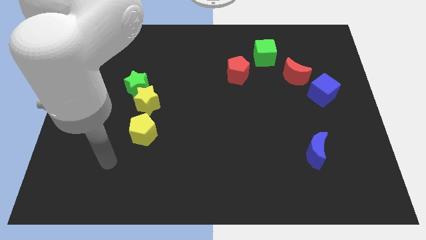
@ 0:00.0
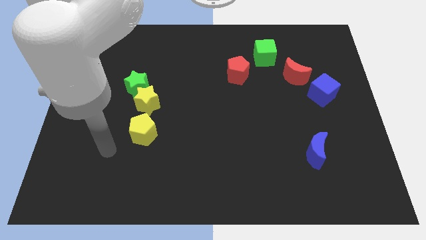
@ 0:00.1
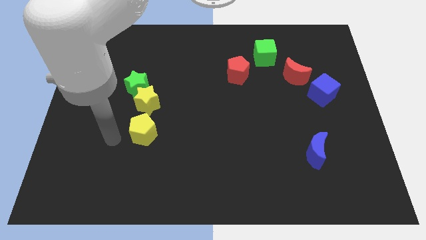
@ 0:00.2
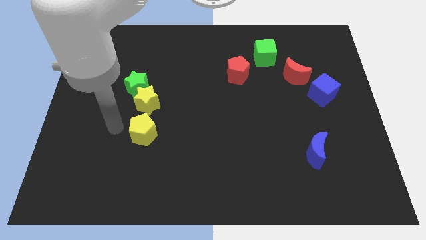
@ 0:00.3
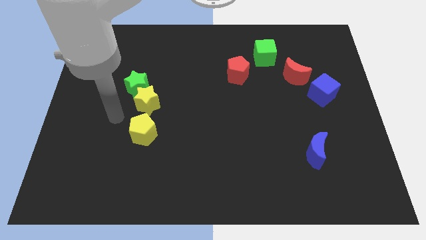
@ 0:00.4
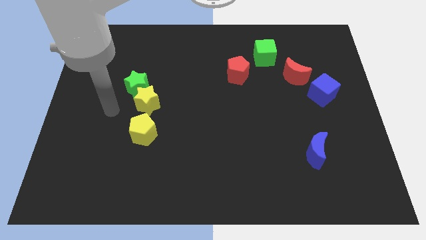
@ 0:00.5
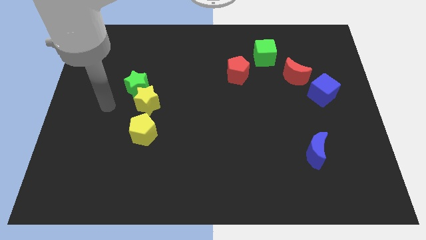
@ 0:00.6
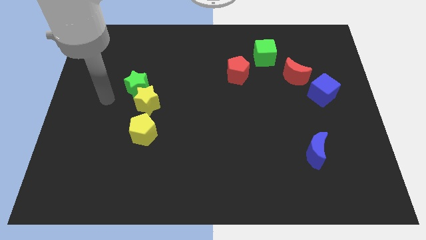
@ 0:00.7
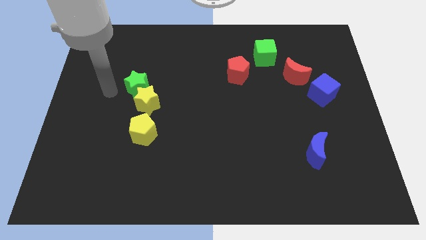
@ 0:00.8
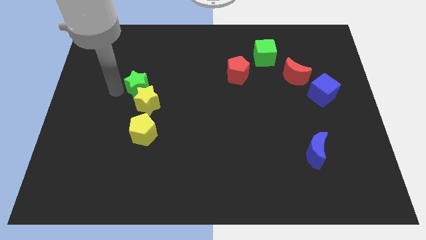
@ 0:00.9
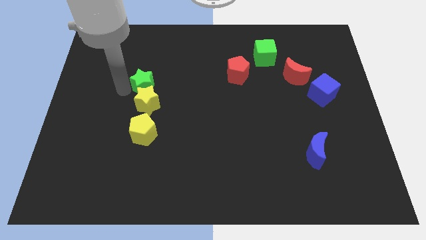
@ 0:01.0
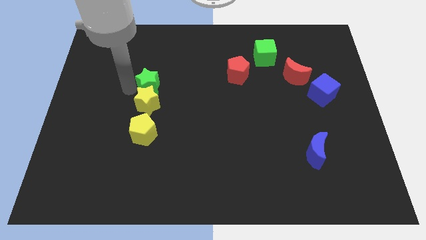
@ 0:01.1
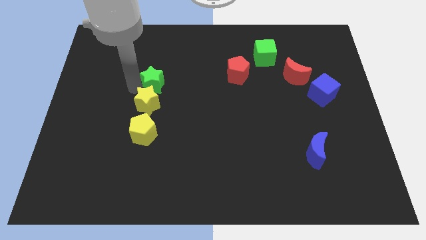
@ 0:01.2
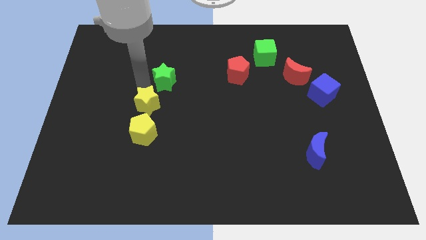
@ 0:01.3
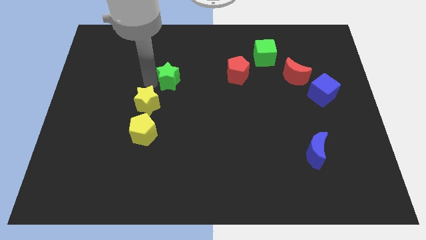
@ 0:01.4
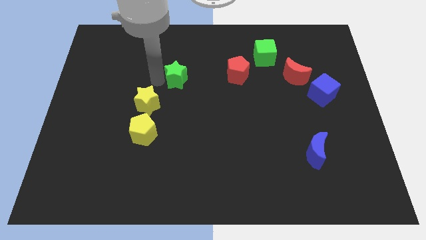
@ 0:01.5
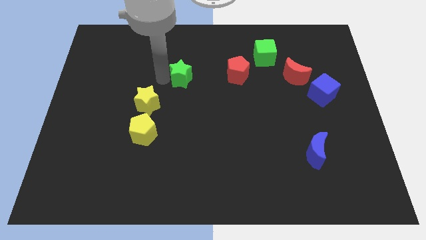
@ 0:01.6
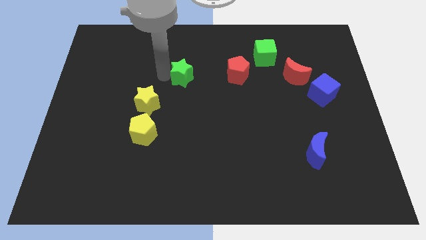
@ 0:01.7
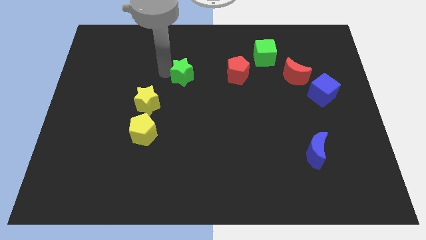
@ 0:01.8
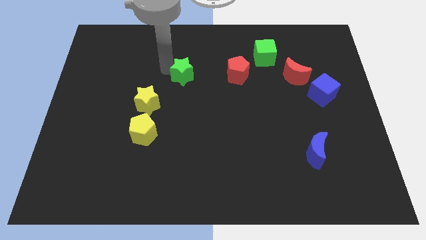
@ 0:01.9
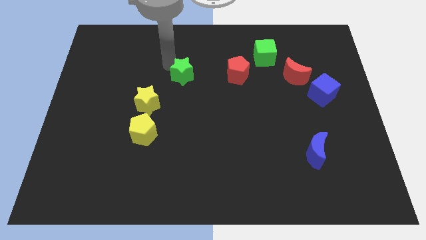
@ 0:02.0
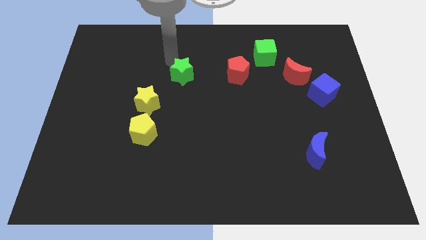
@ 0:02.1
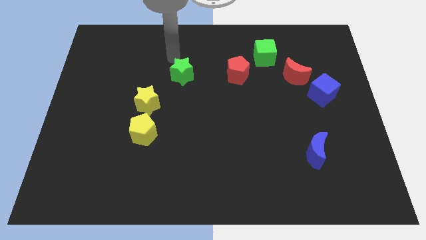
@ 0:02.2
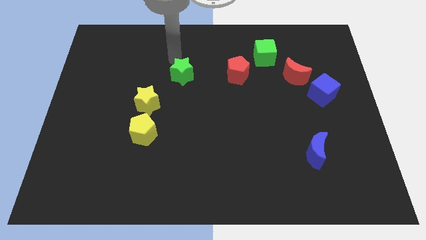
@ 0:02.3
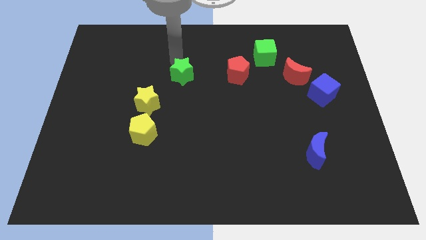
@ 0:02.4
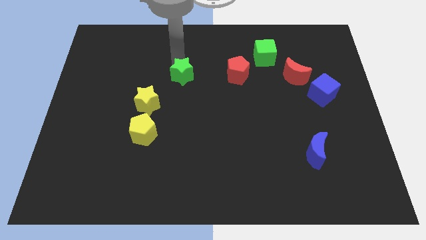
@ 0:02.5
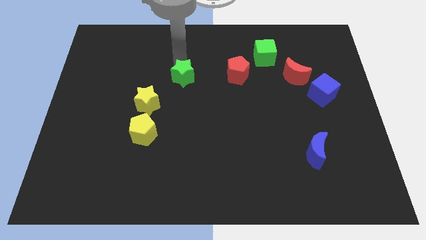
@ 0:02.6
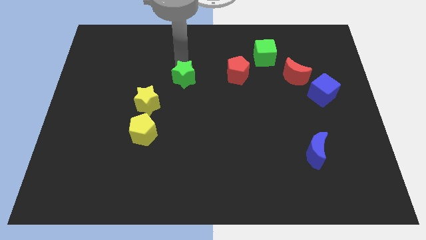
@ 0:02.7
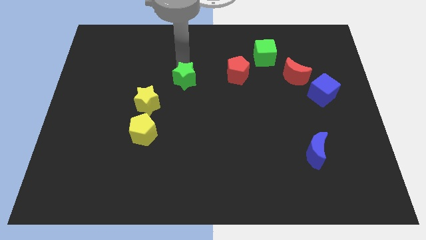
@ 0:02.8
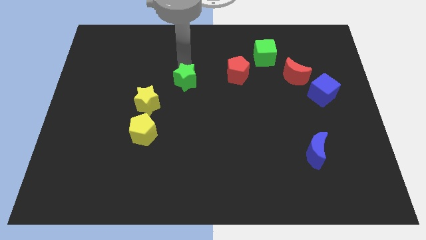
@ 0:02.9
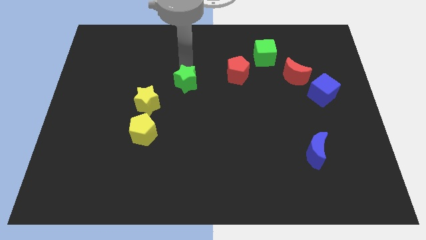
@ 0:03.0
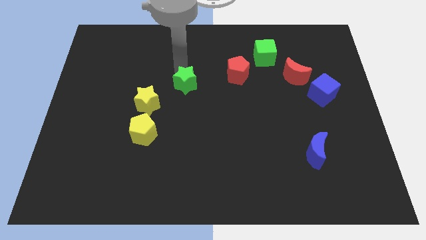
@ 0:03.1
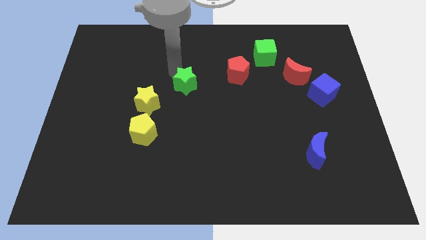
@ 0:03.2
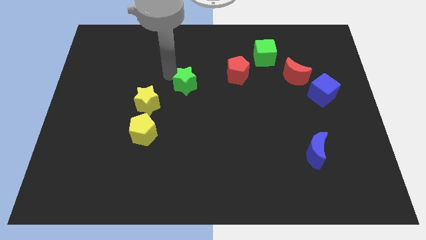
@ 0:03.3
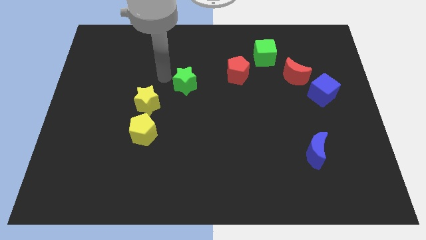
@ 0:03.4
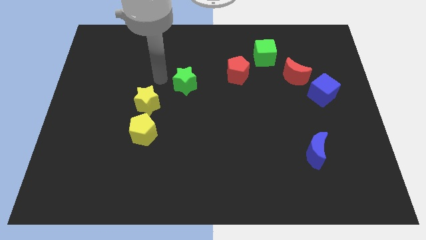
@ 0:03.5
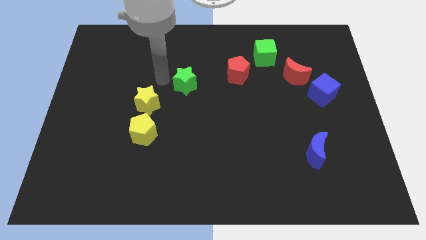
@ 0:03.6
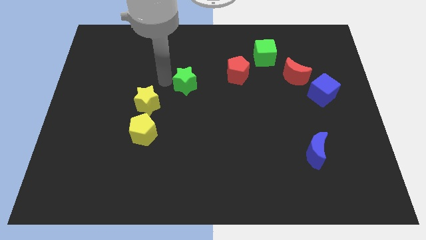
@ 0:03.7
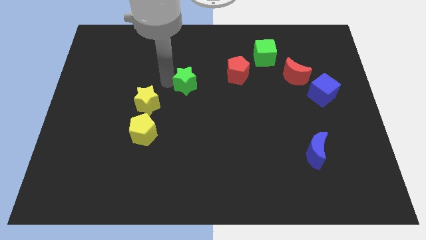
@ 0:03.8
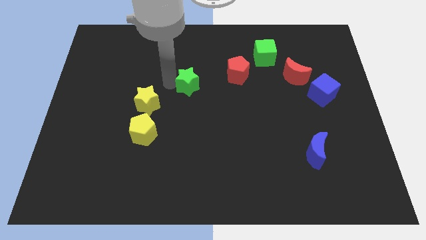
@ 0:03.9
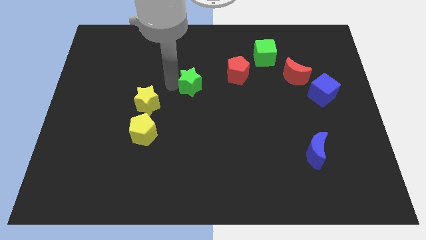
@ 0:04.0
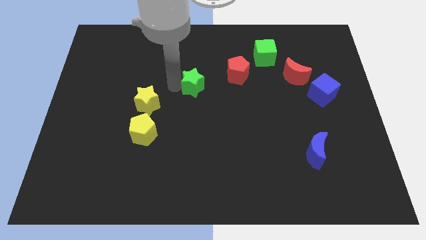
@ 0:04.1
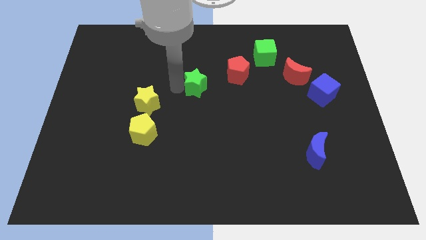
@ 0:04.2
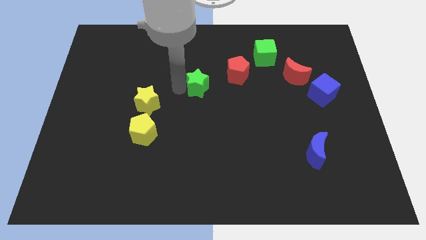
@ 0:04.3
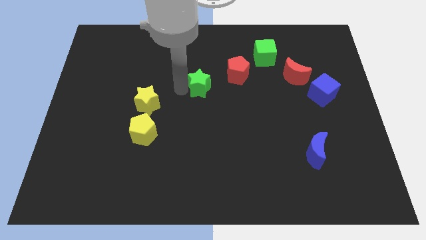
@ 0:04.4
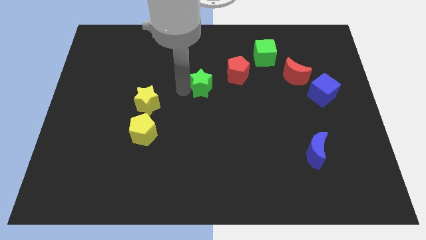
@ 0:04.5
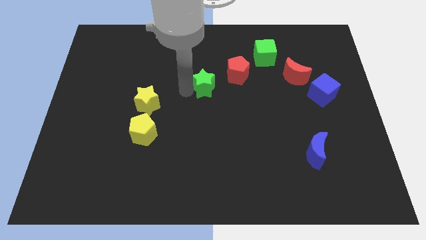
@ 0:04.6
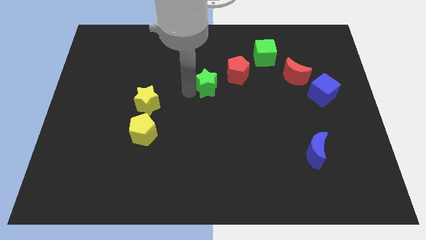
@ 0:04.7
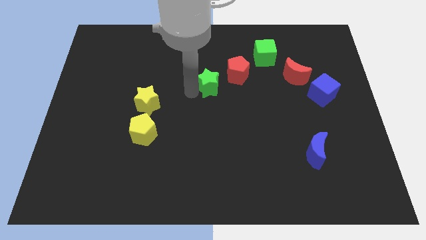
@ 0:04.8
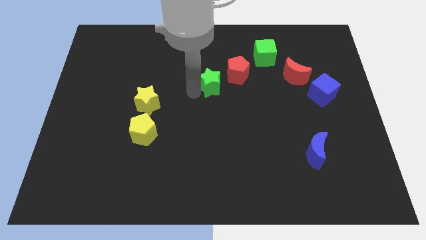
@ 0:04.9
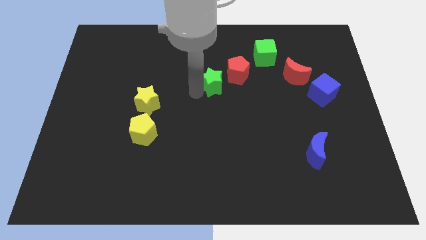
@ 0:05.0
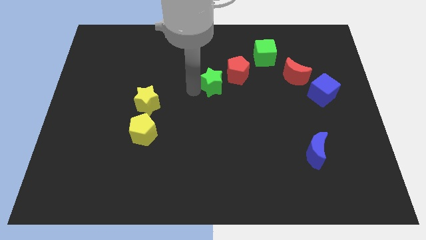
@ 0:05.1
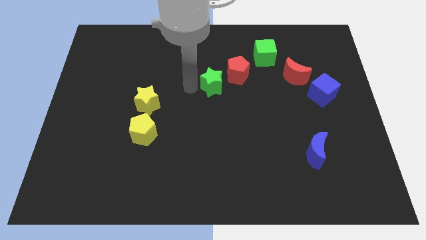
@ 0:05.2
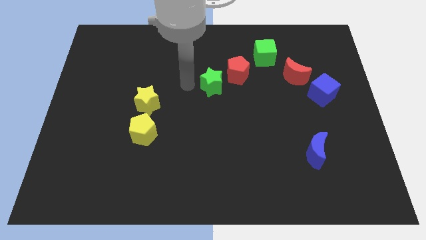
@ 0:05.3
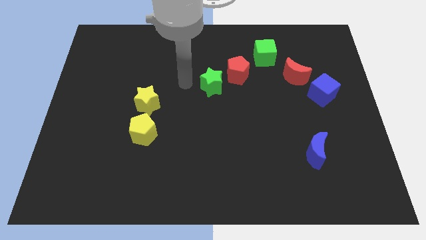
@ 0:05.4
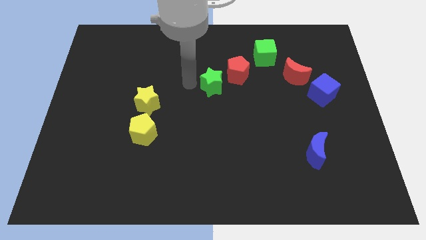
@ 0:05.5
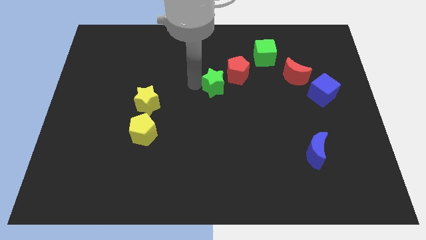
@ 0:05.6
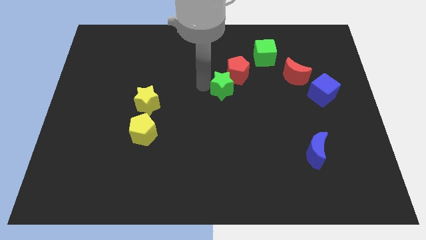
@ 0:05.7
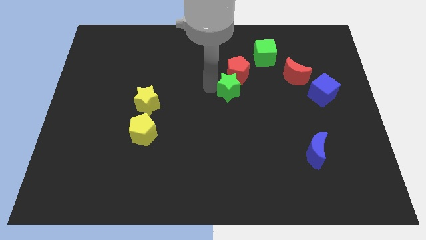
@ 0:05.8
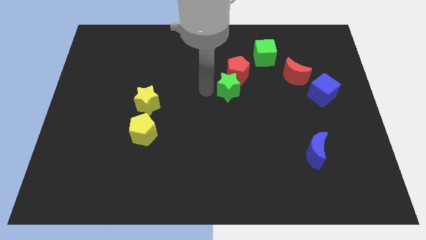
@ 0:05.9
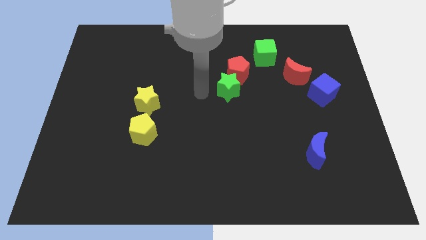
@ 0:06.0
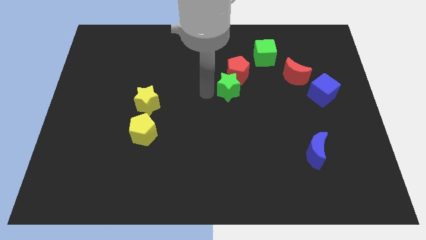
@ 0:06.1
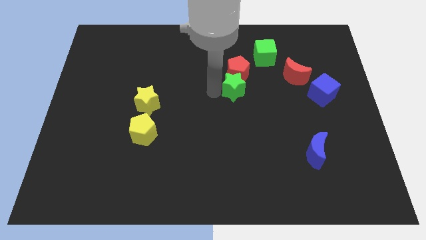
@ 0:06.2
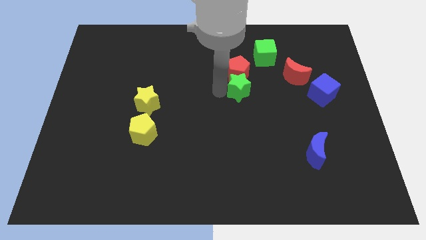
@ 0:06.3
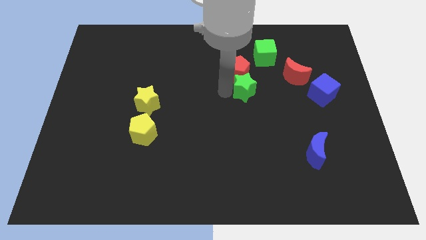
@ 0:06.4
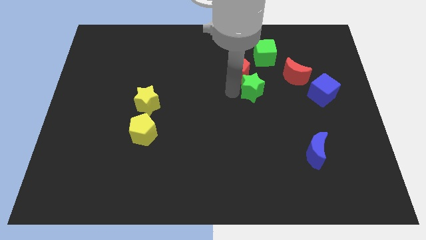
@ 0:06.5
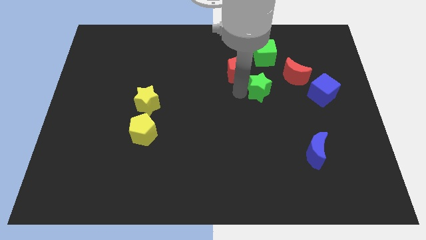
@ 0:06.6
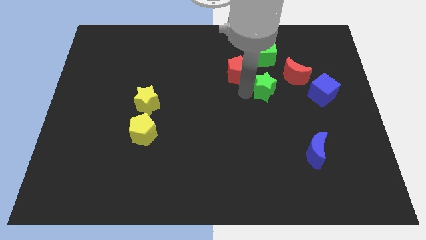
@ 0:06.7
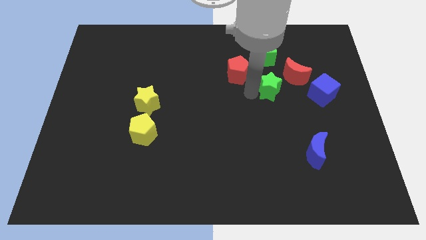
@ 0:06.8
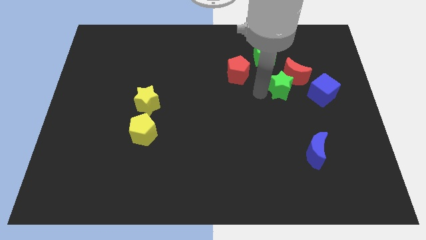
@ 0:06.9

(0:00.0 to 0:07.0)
put the green star next to the red moon
